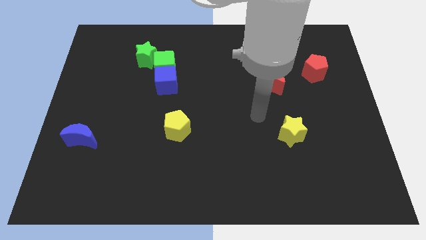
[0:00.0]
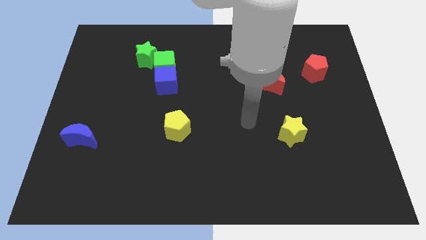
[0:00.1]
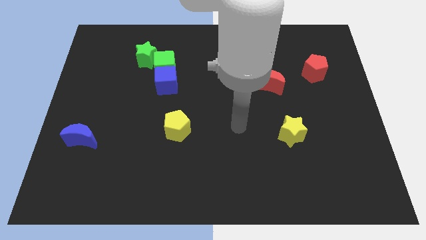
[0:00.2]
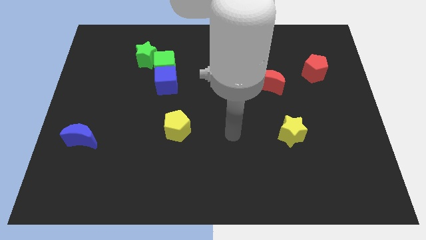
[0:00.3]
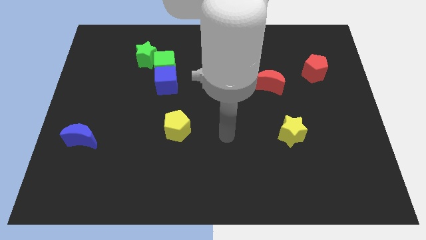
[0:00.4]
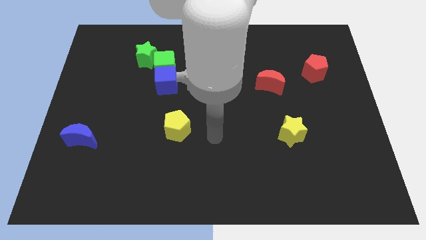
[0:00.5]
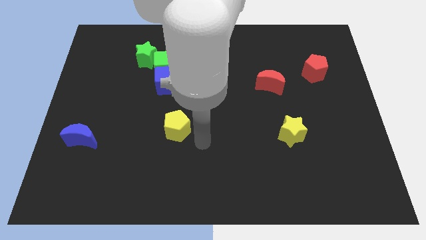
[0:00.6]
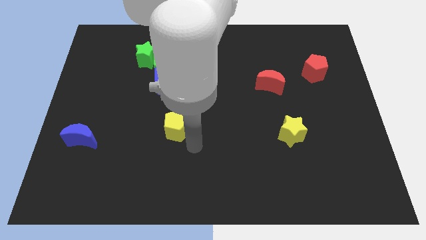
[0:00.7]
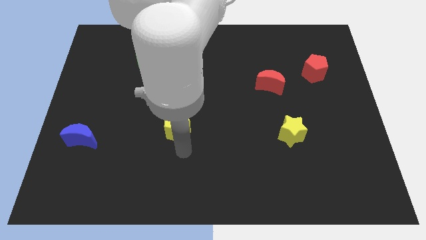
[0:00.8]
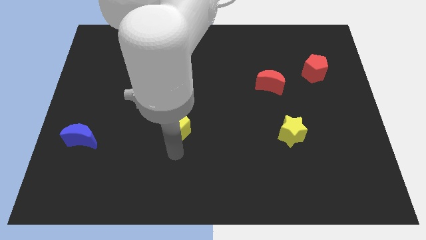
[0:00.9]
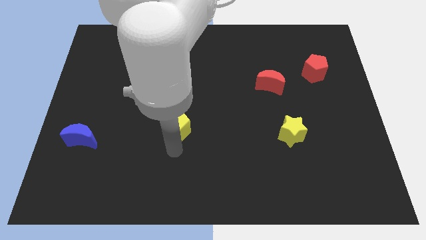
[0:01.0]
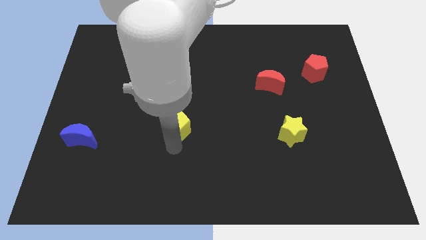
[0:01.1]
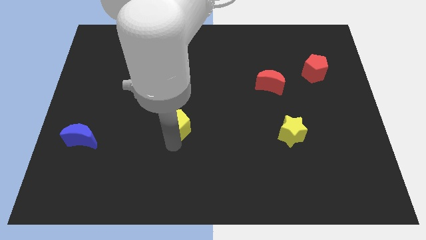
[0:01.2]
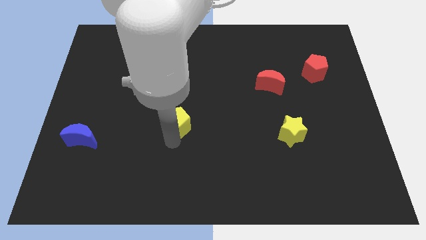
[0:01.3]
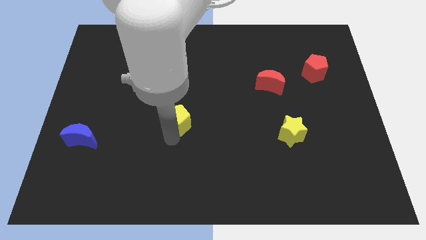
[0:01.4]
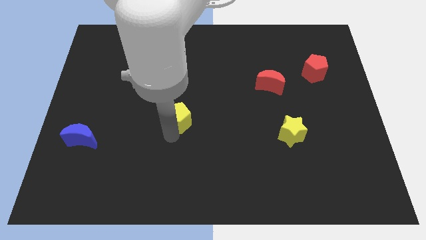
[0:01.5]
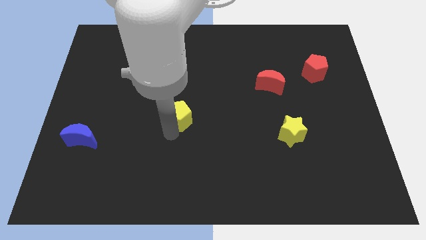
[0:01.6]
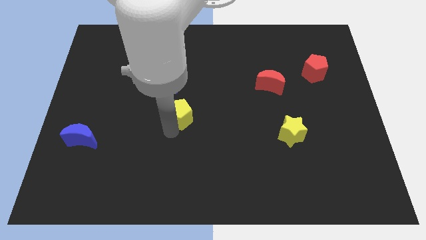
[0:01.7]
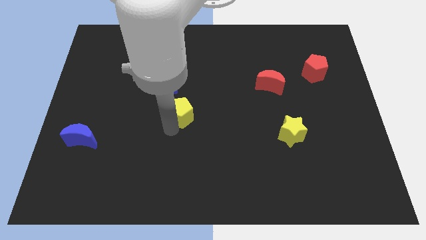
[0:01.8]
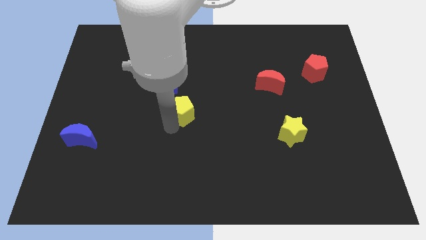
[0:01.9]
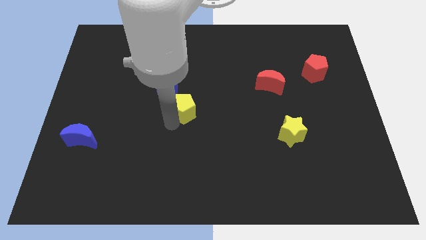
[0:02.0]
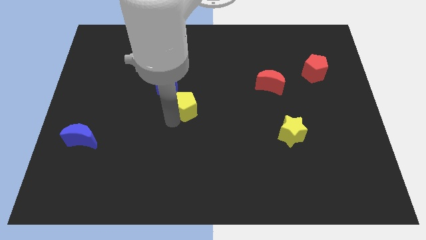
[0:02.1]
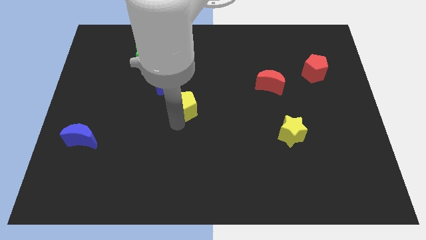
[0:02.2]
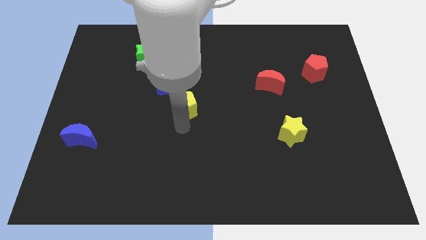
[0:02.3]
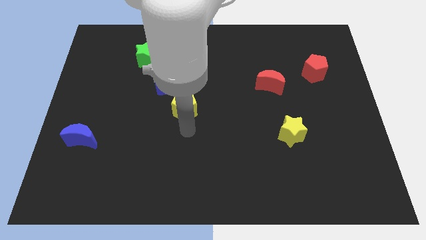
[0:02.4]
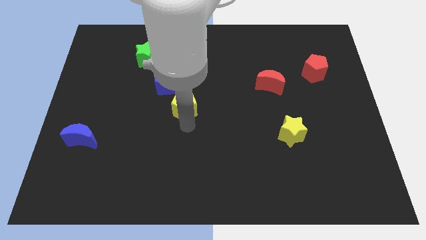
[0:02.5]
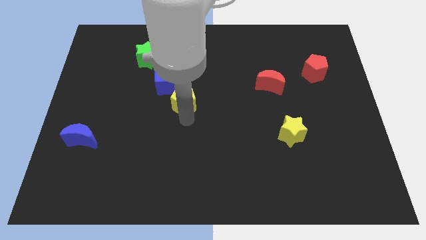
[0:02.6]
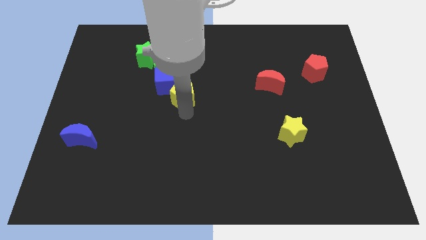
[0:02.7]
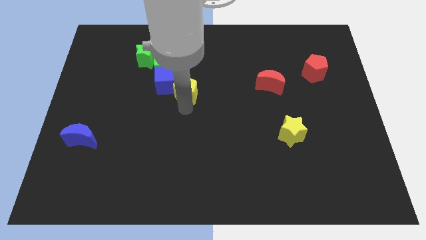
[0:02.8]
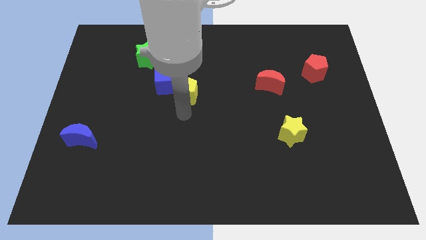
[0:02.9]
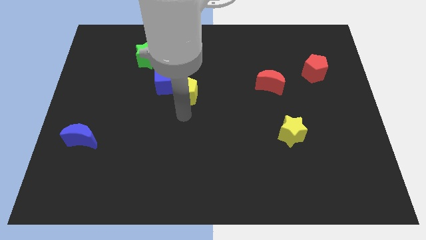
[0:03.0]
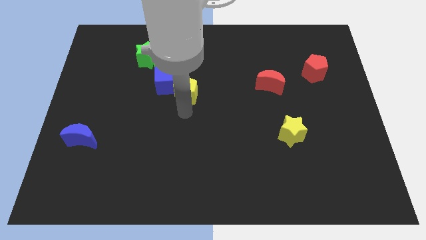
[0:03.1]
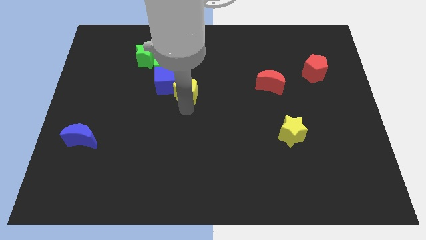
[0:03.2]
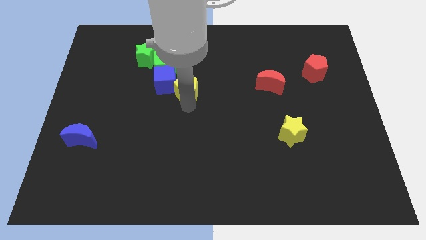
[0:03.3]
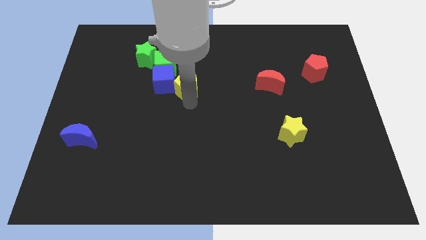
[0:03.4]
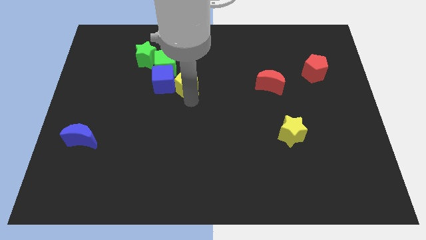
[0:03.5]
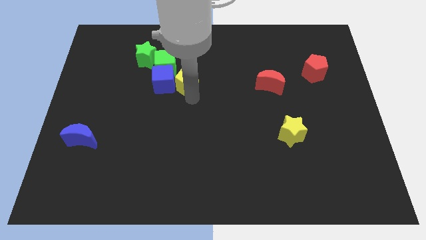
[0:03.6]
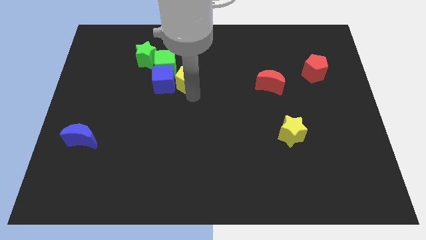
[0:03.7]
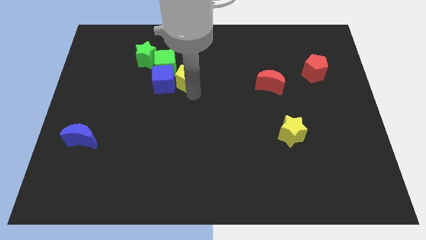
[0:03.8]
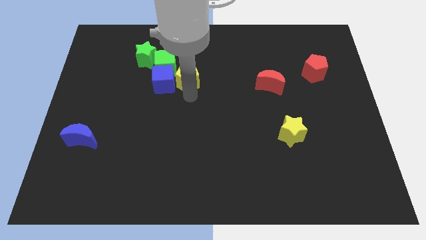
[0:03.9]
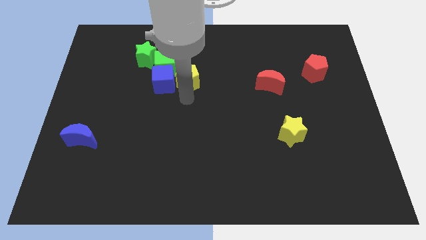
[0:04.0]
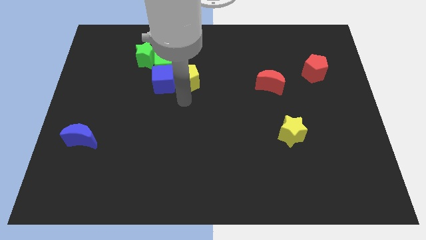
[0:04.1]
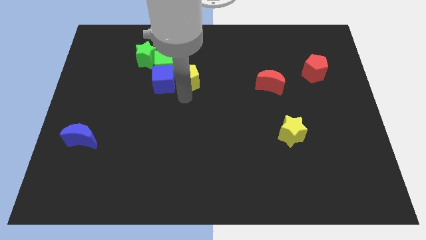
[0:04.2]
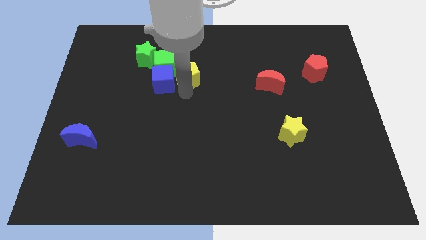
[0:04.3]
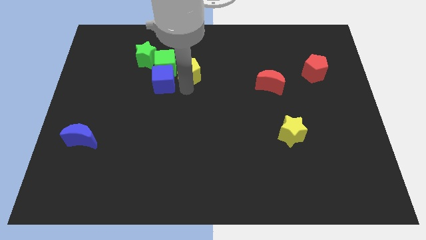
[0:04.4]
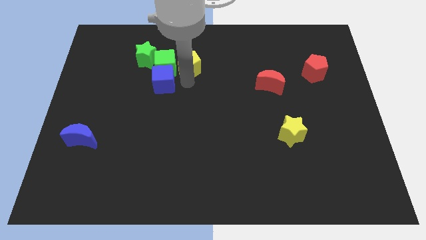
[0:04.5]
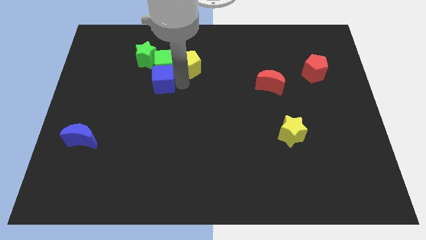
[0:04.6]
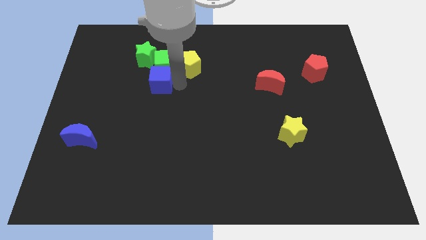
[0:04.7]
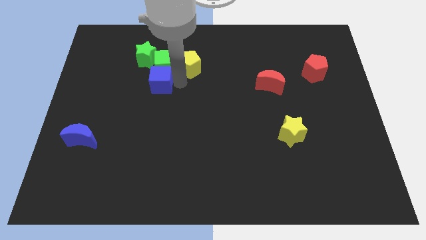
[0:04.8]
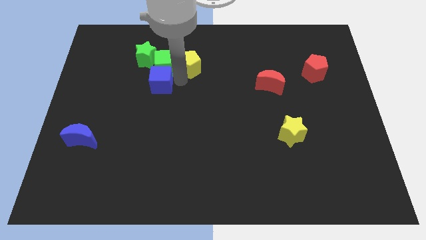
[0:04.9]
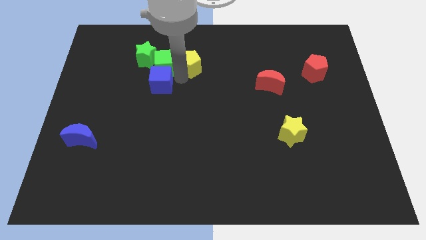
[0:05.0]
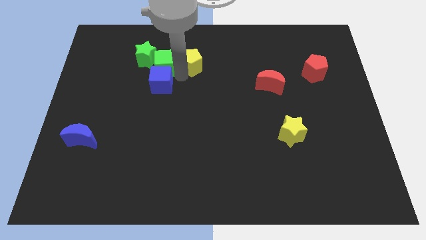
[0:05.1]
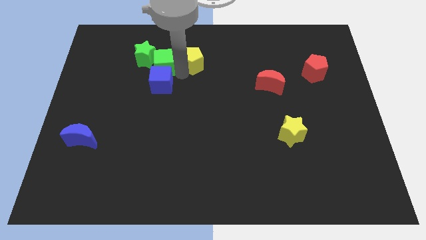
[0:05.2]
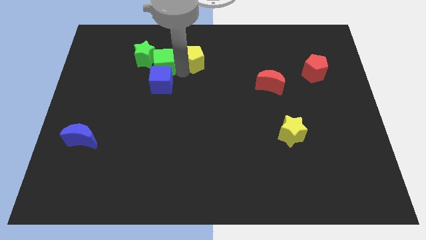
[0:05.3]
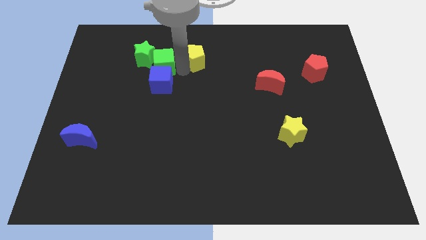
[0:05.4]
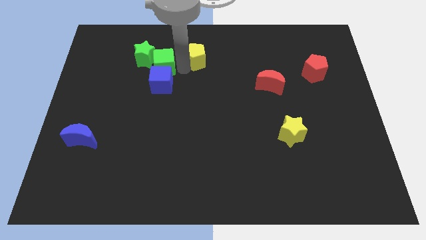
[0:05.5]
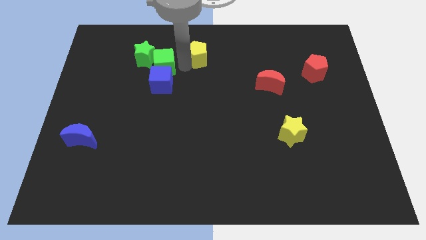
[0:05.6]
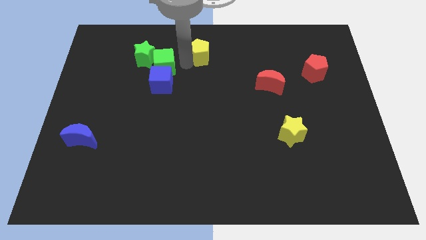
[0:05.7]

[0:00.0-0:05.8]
slide the yellow pentagon to the towards your base

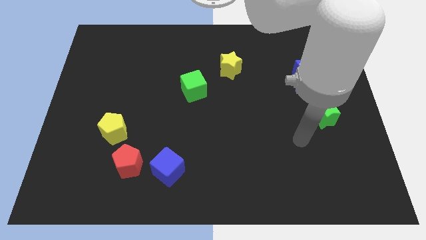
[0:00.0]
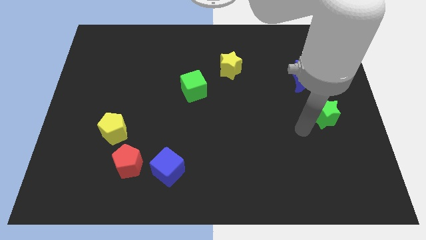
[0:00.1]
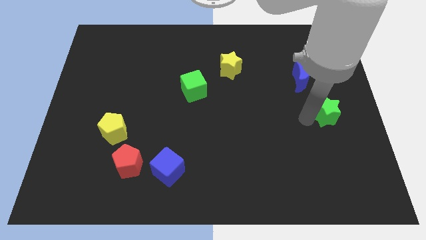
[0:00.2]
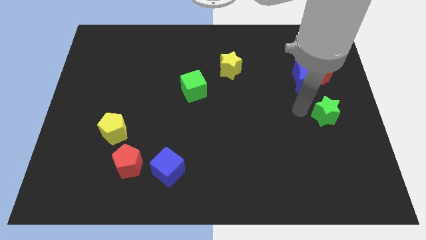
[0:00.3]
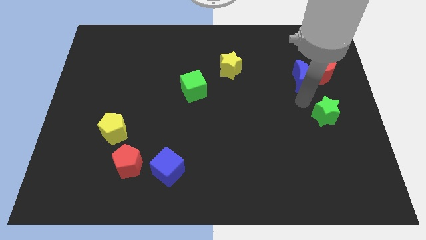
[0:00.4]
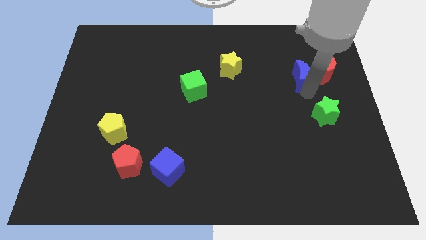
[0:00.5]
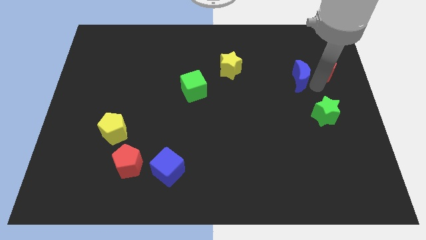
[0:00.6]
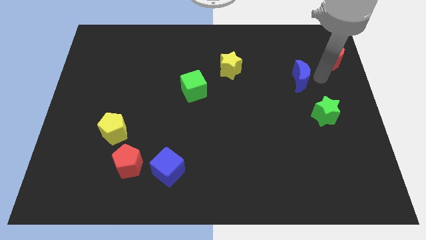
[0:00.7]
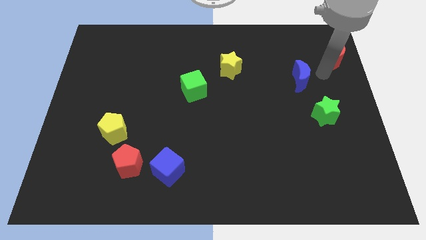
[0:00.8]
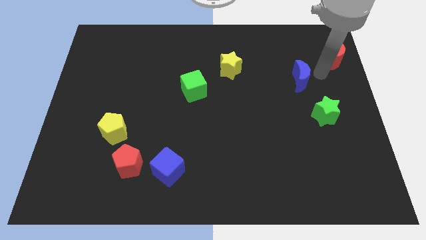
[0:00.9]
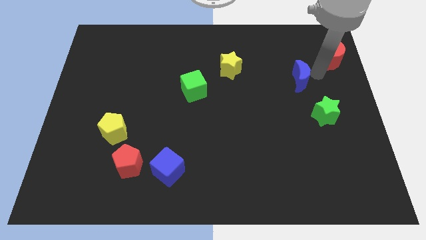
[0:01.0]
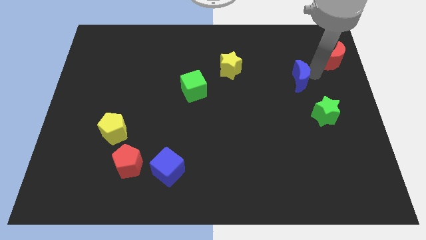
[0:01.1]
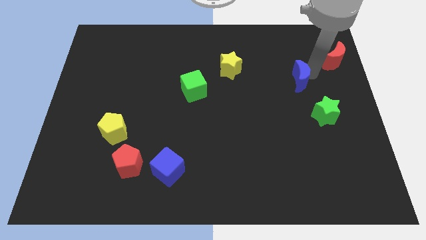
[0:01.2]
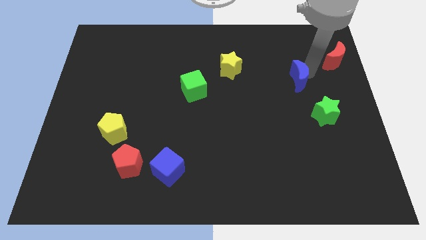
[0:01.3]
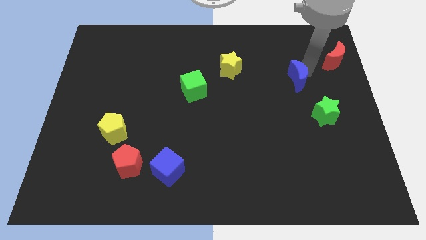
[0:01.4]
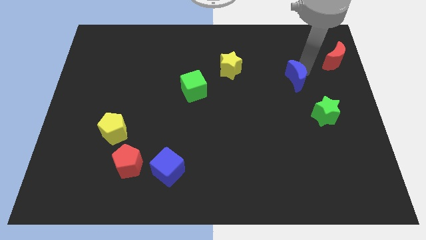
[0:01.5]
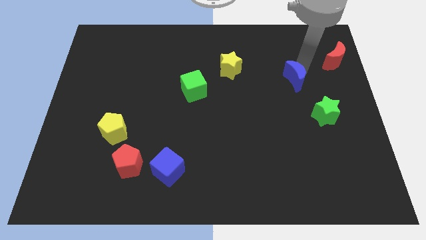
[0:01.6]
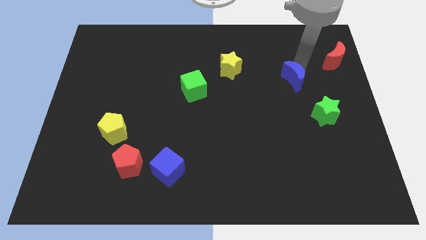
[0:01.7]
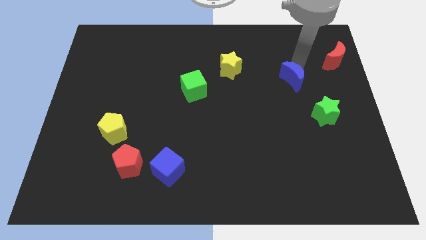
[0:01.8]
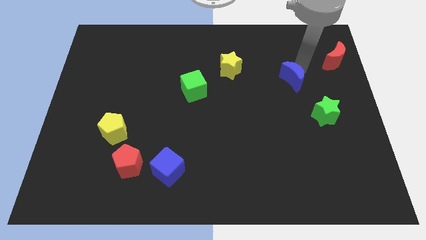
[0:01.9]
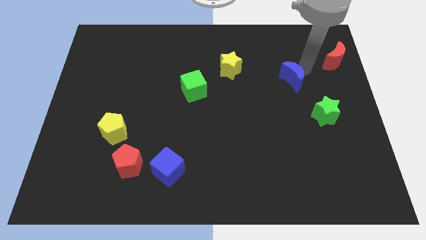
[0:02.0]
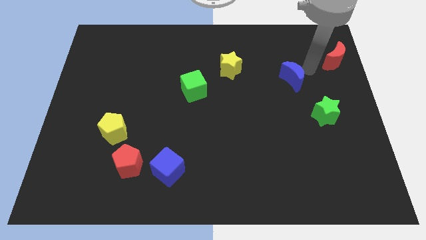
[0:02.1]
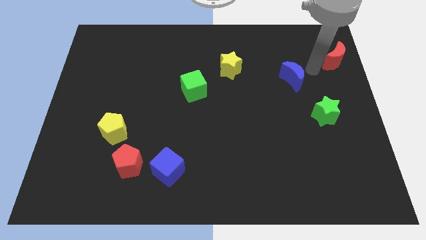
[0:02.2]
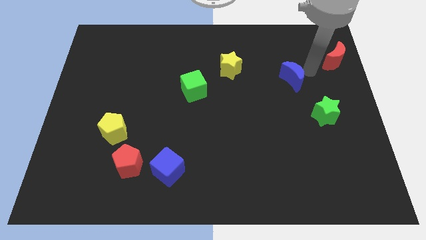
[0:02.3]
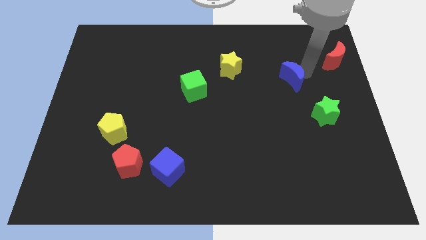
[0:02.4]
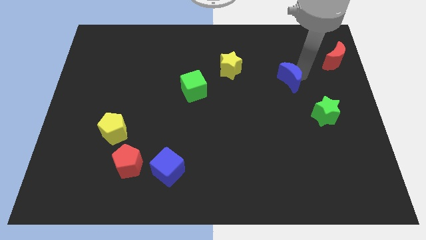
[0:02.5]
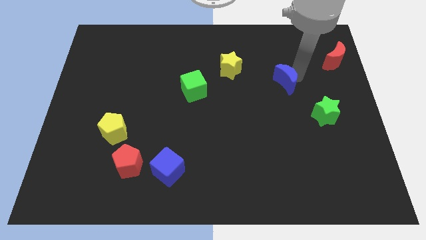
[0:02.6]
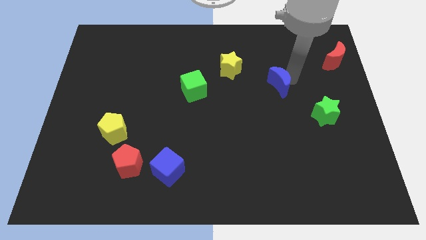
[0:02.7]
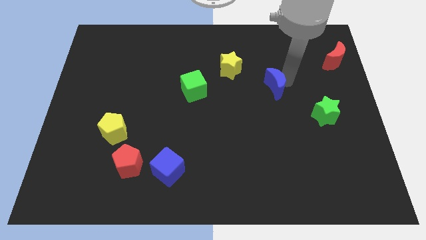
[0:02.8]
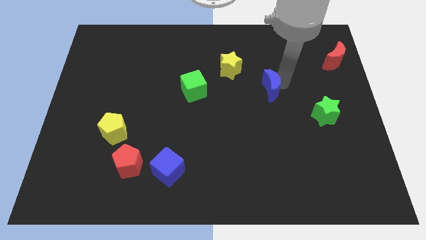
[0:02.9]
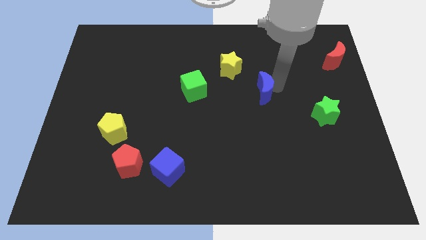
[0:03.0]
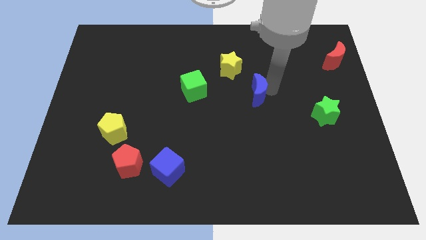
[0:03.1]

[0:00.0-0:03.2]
move the blue moon to the middle
